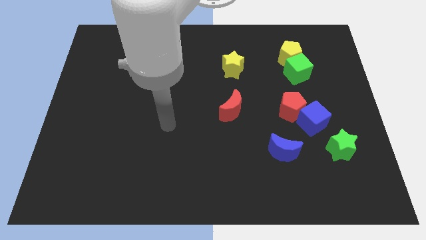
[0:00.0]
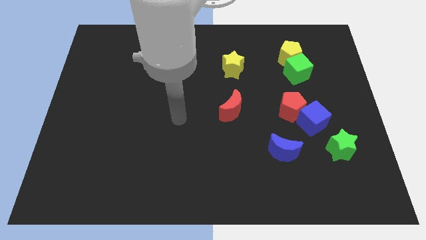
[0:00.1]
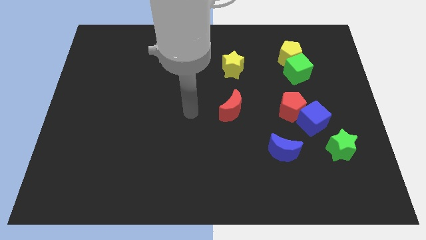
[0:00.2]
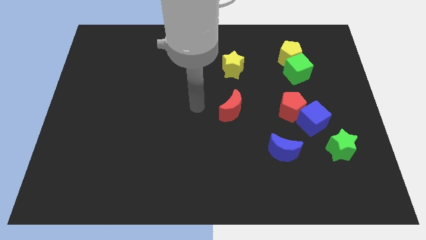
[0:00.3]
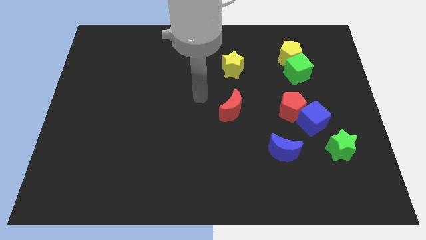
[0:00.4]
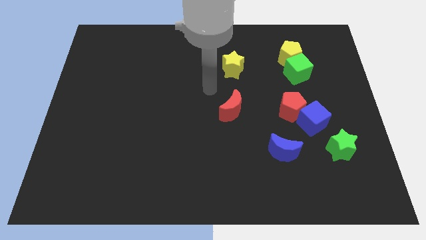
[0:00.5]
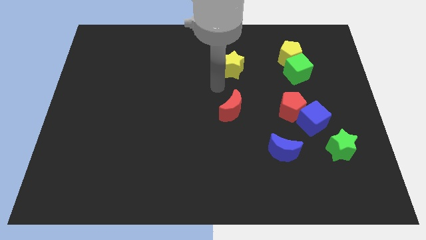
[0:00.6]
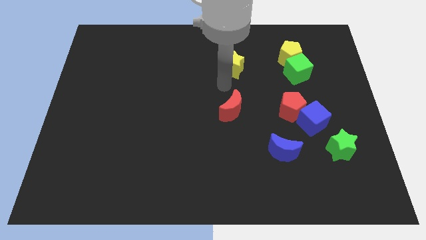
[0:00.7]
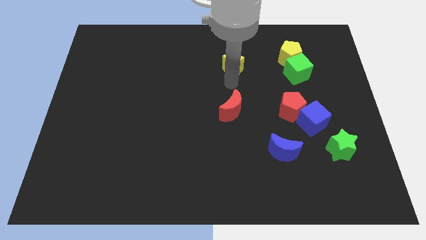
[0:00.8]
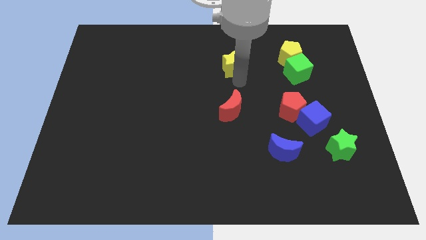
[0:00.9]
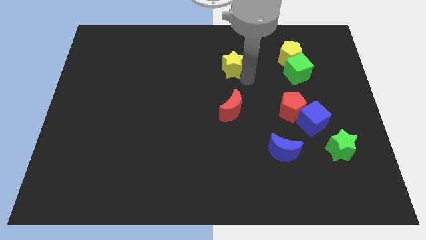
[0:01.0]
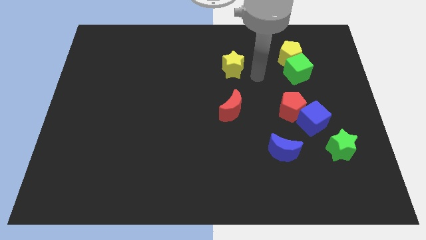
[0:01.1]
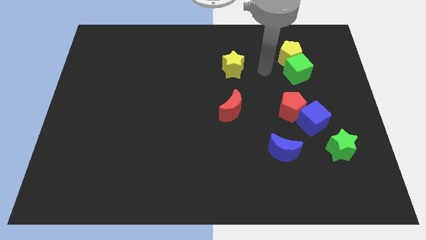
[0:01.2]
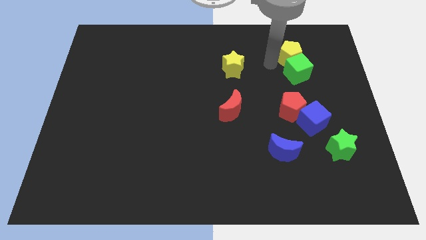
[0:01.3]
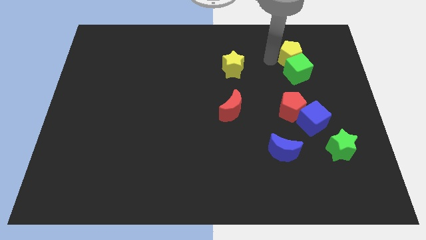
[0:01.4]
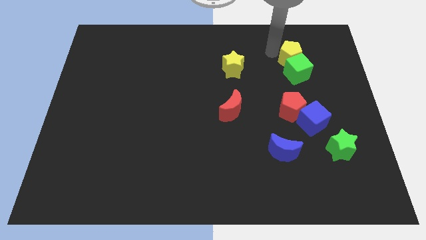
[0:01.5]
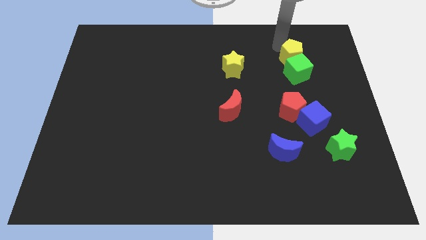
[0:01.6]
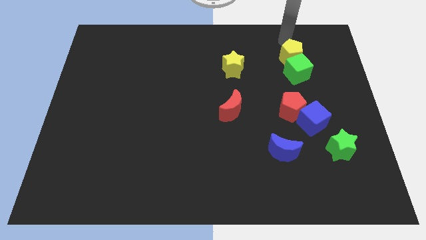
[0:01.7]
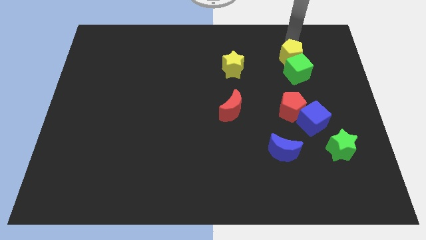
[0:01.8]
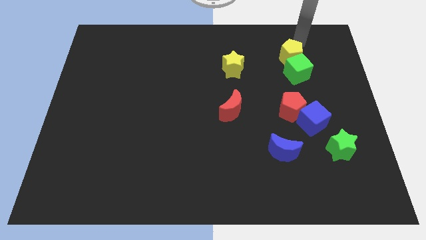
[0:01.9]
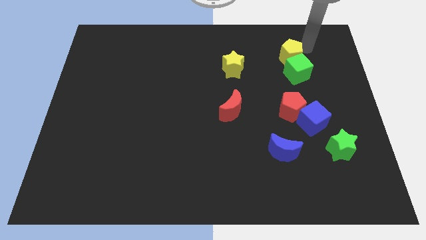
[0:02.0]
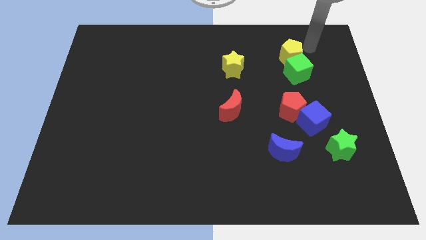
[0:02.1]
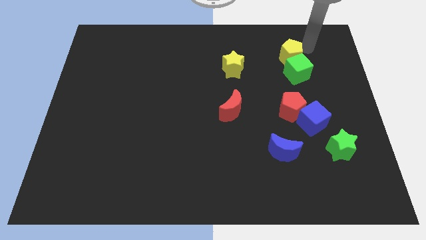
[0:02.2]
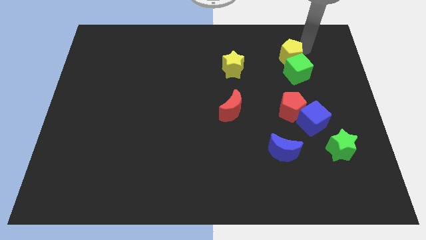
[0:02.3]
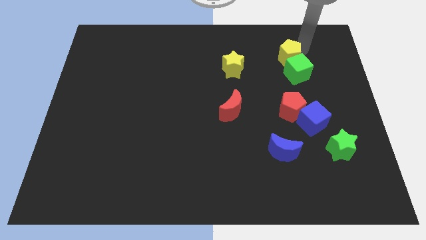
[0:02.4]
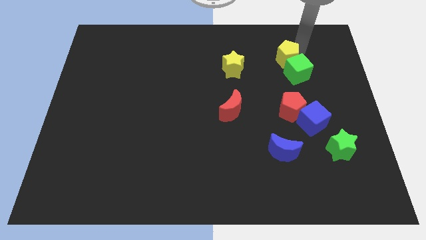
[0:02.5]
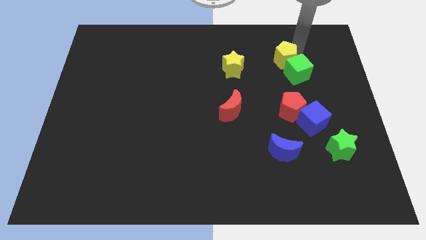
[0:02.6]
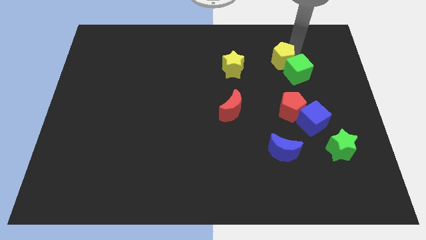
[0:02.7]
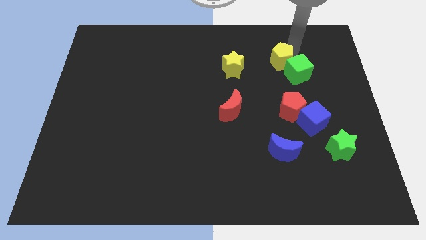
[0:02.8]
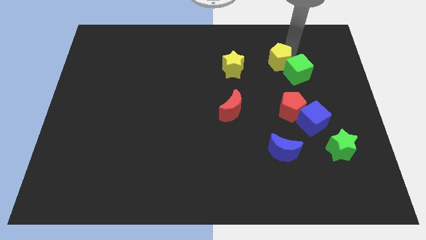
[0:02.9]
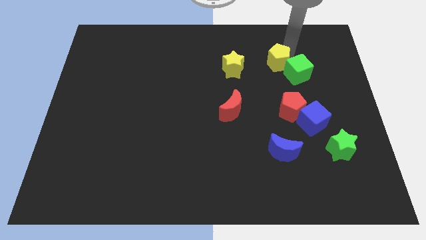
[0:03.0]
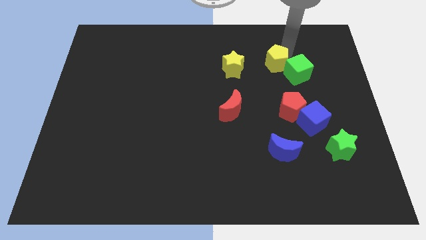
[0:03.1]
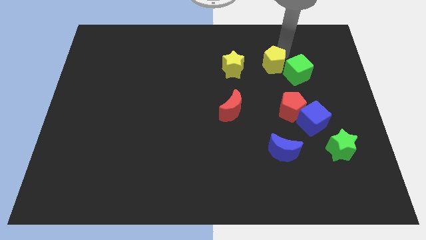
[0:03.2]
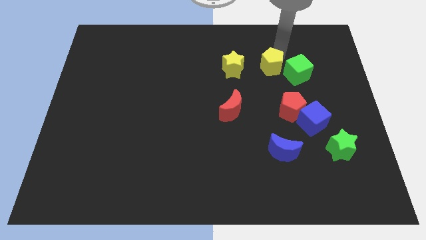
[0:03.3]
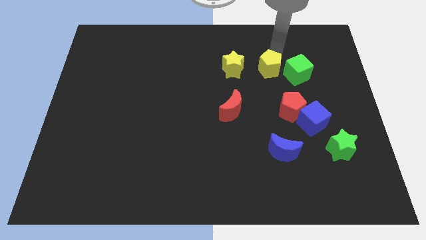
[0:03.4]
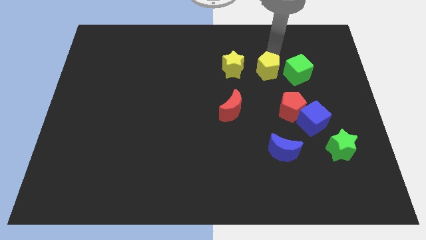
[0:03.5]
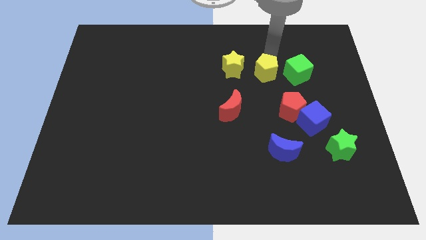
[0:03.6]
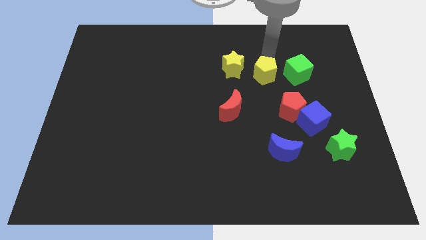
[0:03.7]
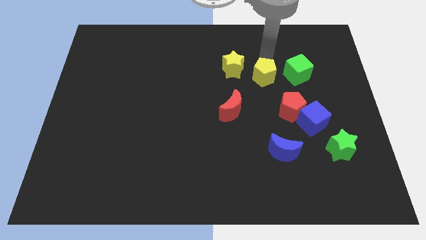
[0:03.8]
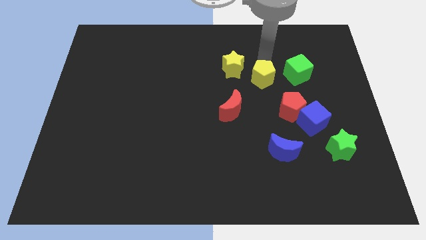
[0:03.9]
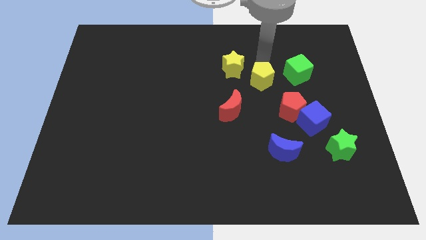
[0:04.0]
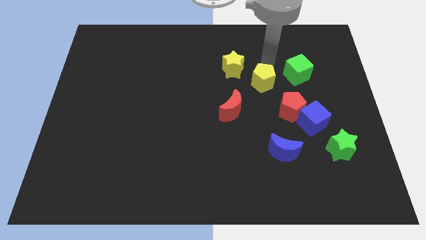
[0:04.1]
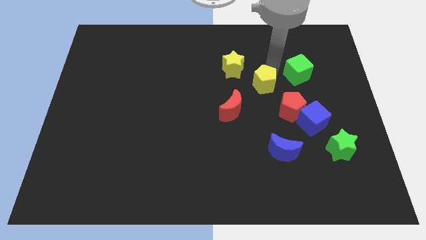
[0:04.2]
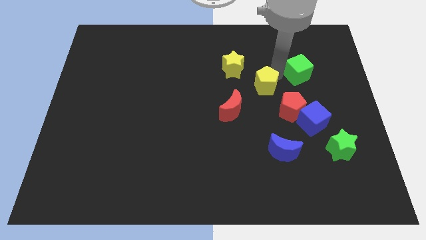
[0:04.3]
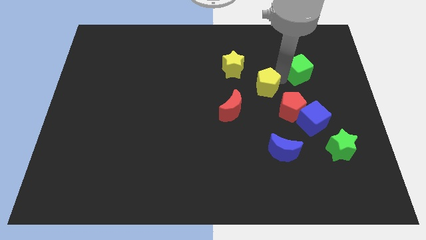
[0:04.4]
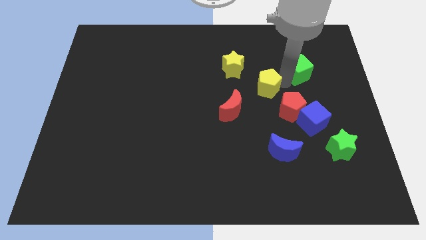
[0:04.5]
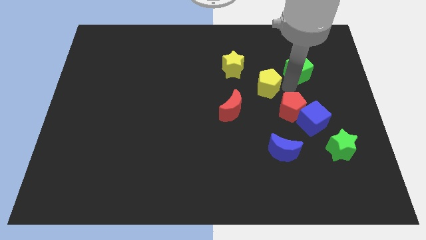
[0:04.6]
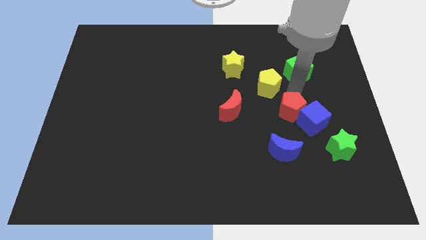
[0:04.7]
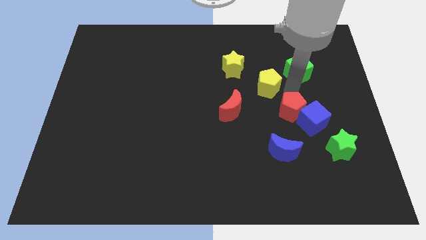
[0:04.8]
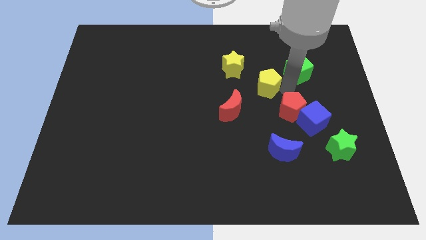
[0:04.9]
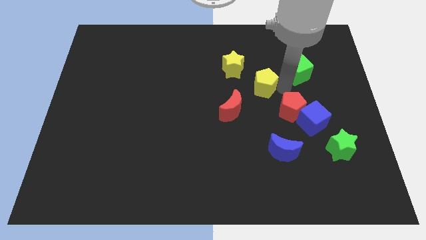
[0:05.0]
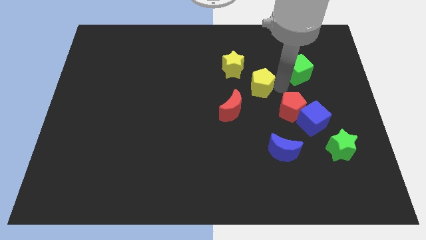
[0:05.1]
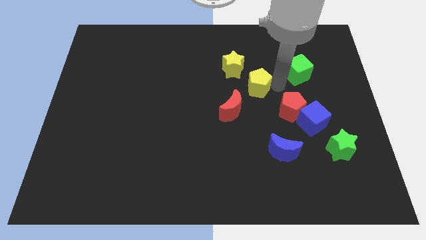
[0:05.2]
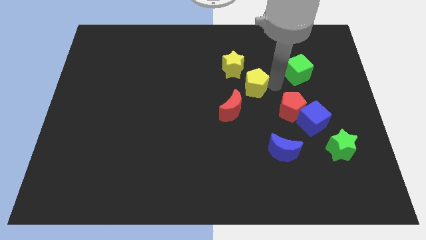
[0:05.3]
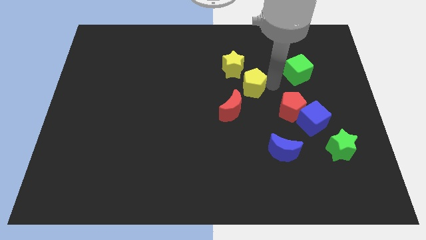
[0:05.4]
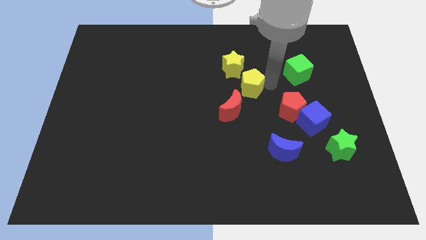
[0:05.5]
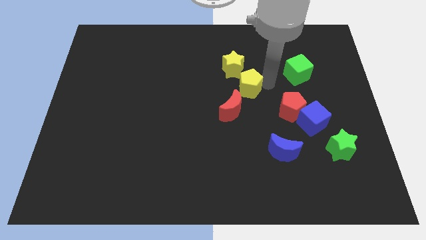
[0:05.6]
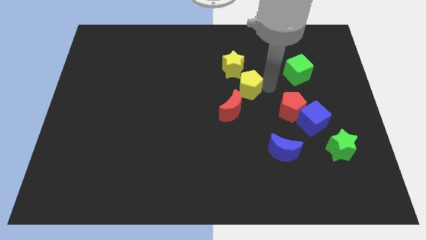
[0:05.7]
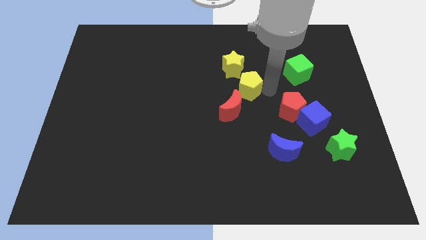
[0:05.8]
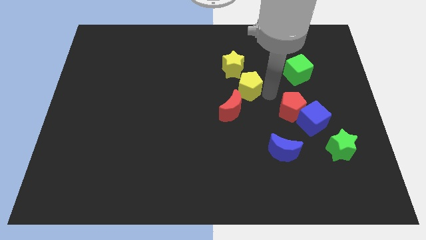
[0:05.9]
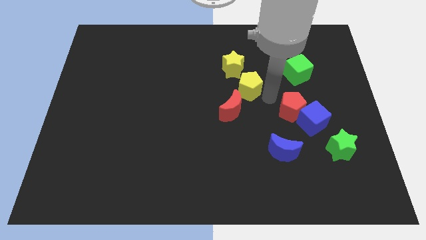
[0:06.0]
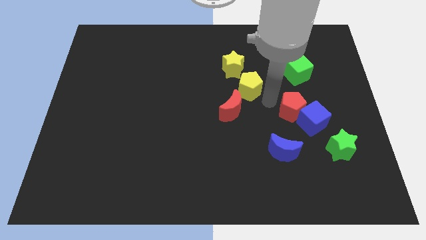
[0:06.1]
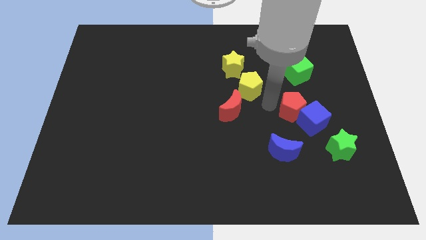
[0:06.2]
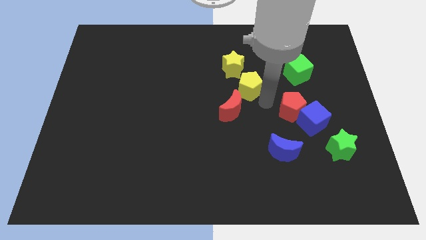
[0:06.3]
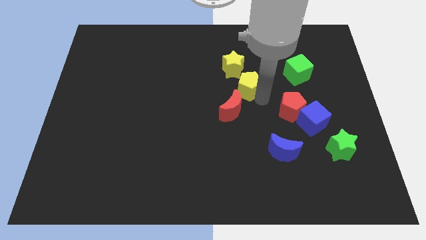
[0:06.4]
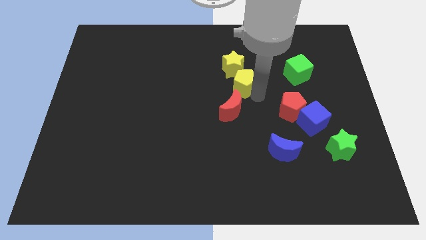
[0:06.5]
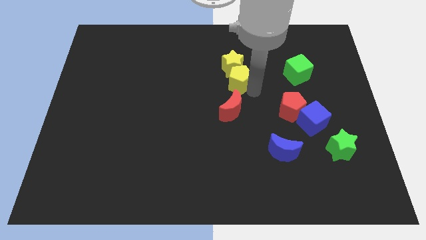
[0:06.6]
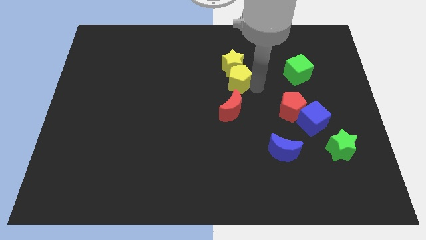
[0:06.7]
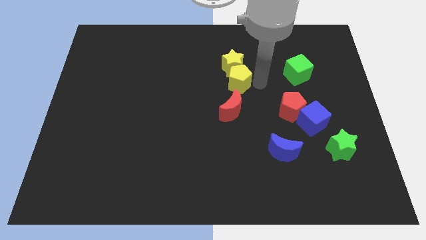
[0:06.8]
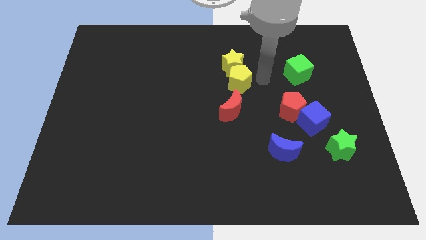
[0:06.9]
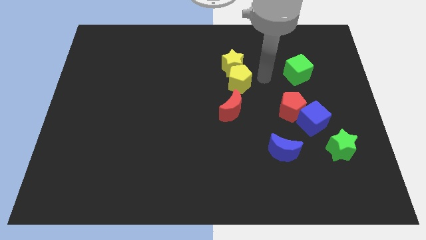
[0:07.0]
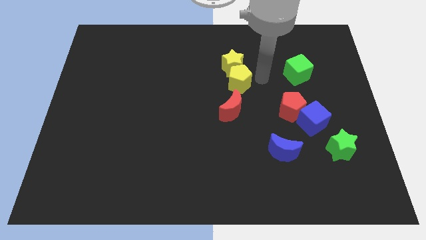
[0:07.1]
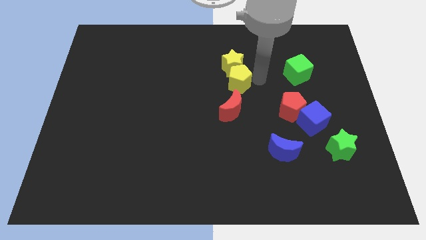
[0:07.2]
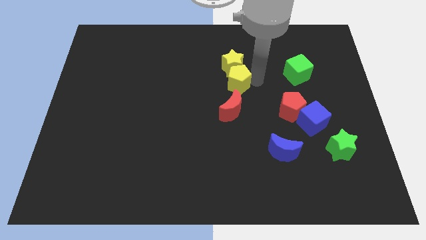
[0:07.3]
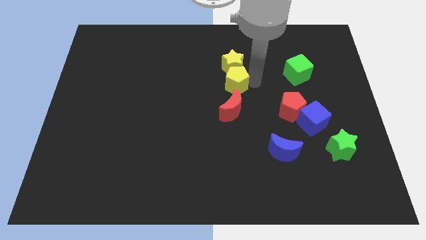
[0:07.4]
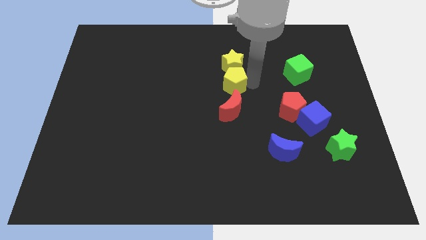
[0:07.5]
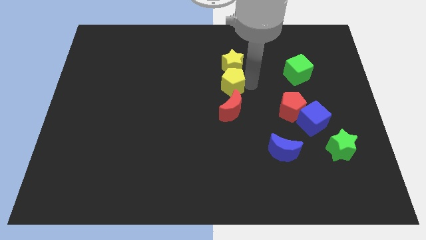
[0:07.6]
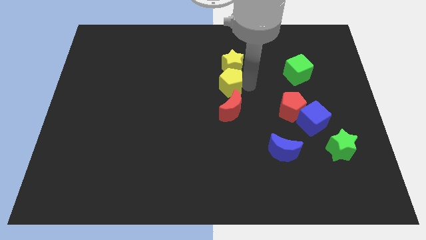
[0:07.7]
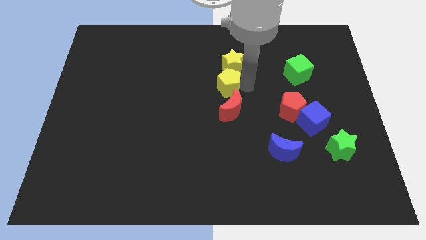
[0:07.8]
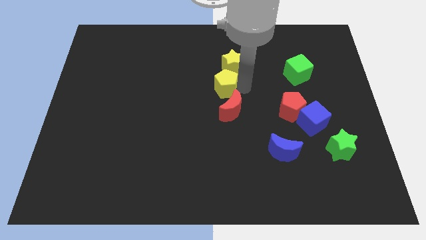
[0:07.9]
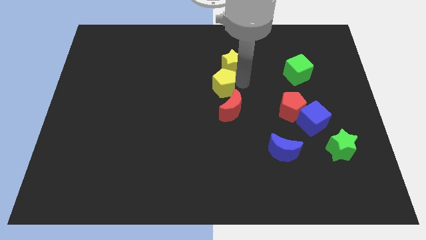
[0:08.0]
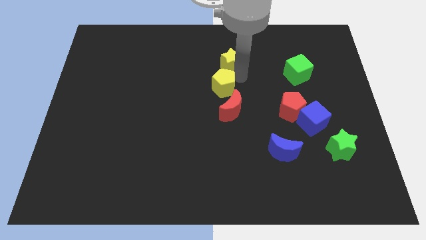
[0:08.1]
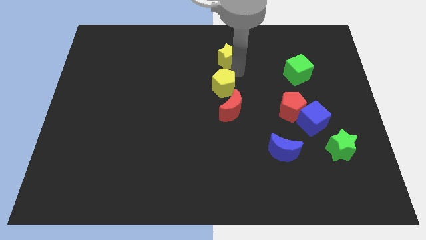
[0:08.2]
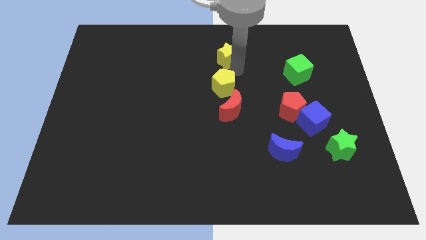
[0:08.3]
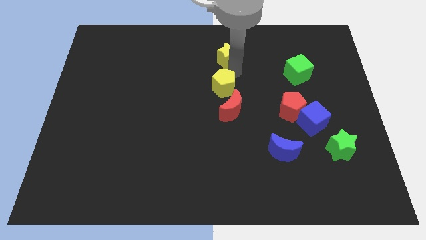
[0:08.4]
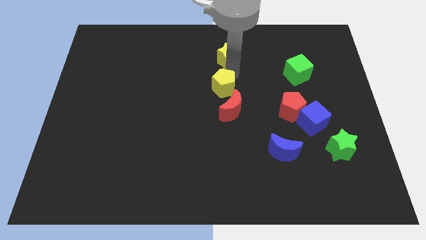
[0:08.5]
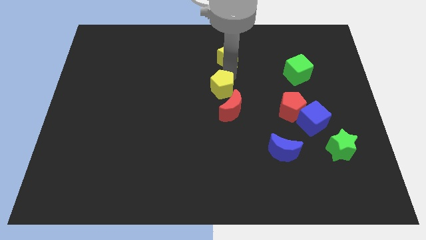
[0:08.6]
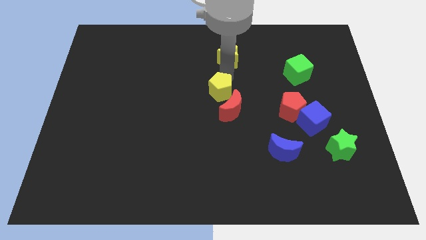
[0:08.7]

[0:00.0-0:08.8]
slide the yellow pentagon down and then left
